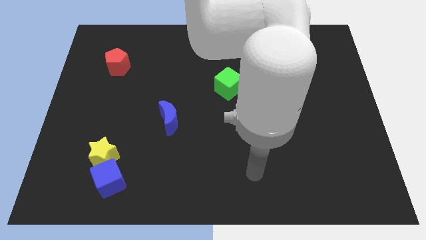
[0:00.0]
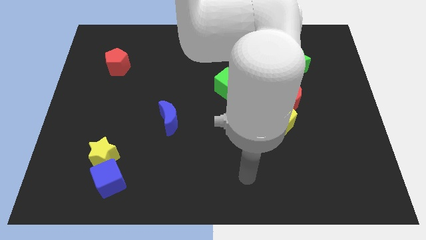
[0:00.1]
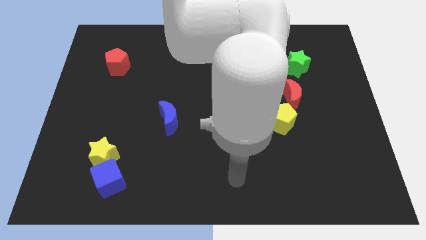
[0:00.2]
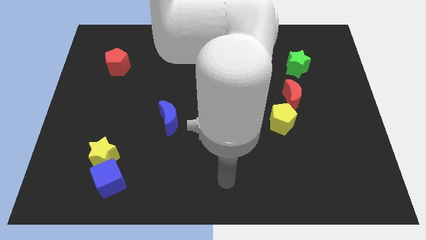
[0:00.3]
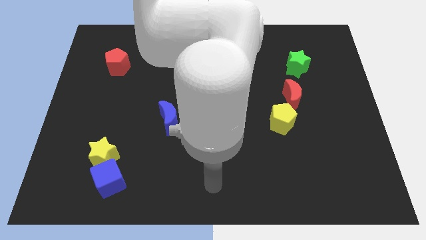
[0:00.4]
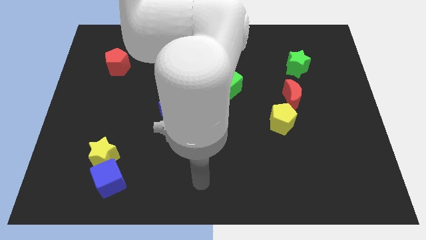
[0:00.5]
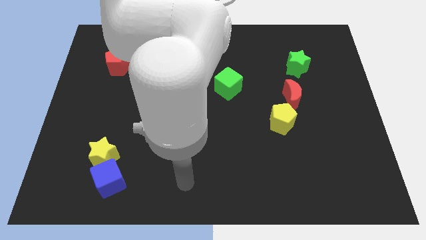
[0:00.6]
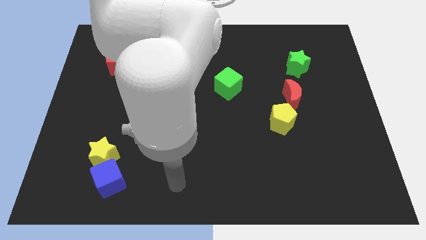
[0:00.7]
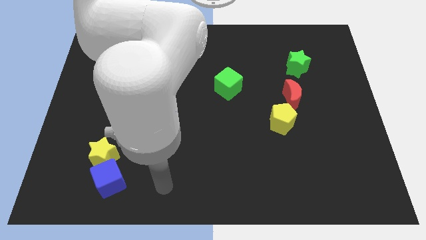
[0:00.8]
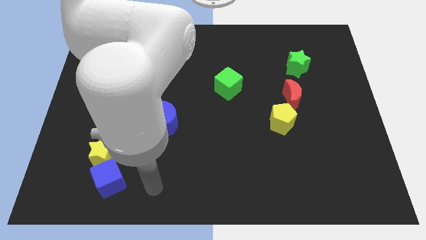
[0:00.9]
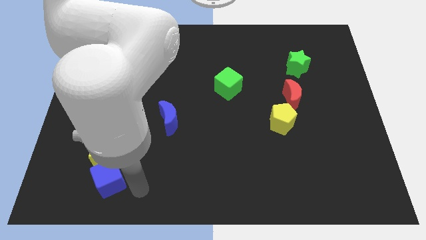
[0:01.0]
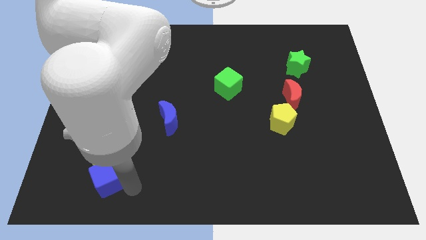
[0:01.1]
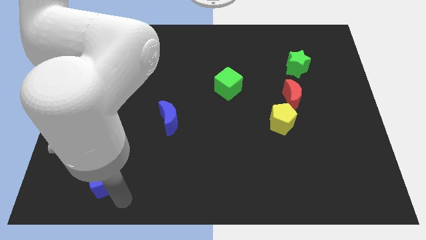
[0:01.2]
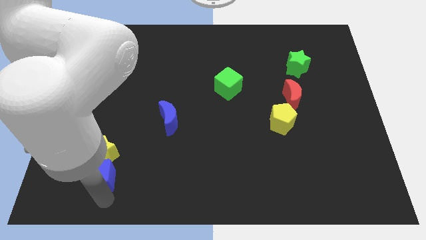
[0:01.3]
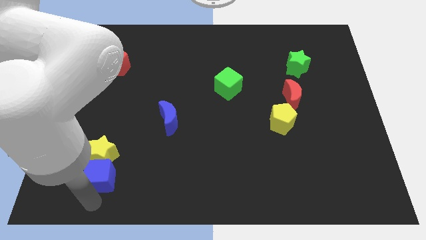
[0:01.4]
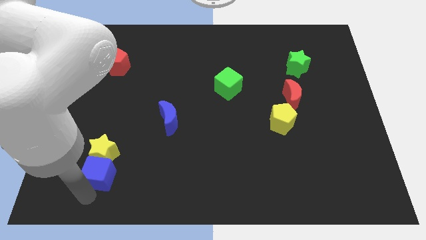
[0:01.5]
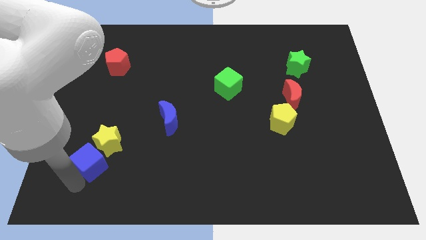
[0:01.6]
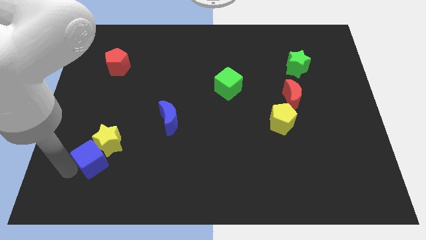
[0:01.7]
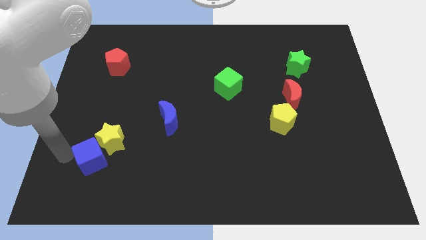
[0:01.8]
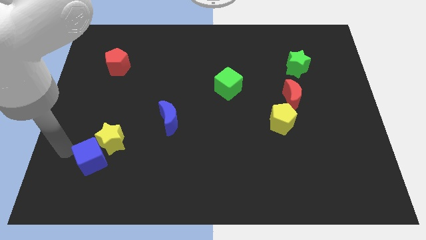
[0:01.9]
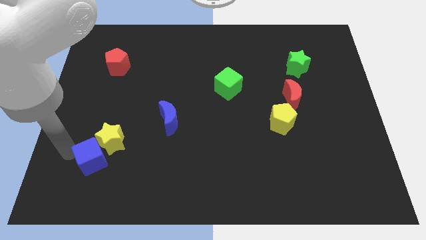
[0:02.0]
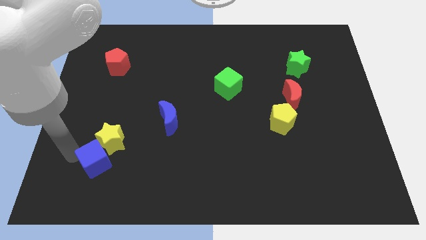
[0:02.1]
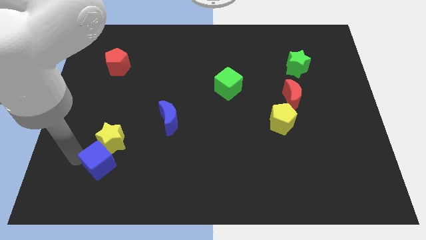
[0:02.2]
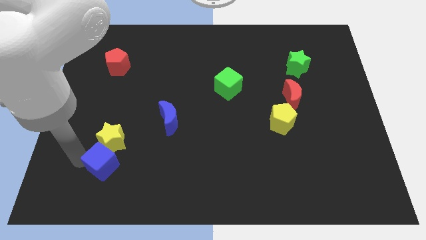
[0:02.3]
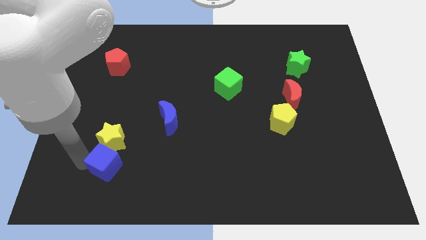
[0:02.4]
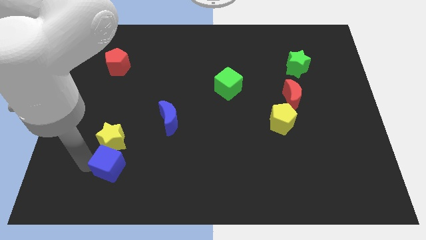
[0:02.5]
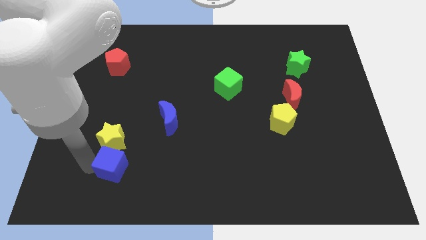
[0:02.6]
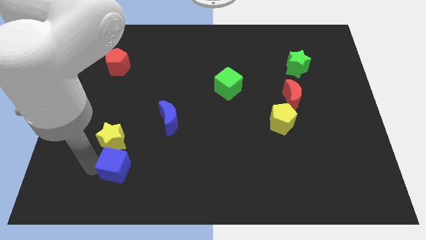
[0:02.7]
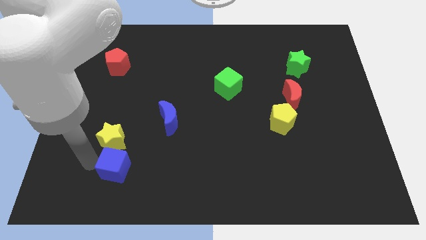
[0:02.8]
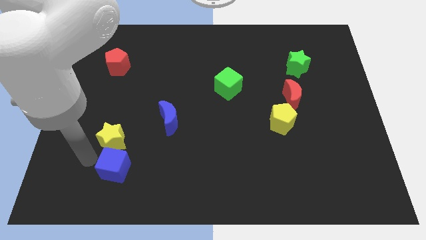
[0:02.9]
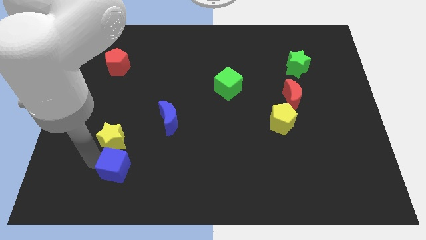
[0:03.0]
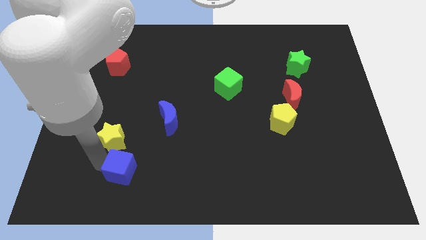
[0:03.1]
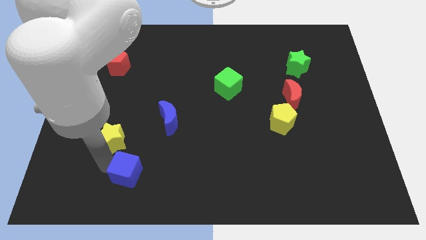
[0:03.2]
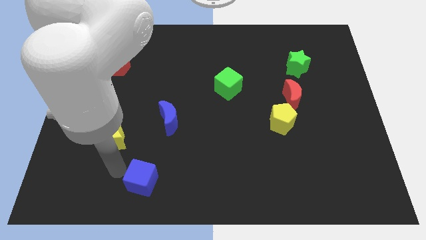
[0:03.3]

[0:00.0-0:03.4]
slightly push the blue cube right

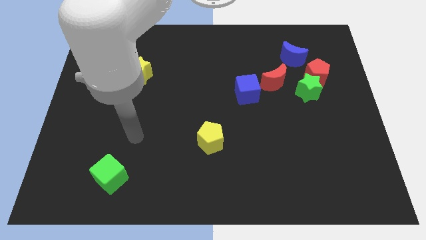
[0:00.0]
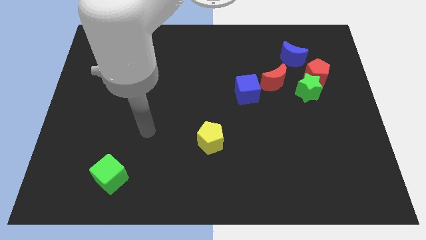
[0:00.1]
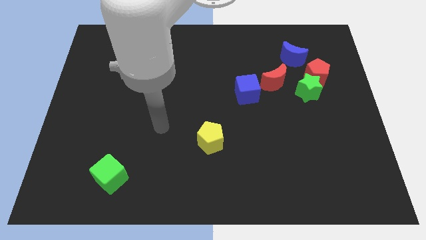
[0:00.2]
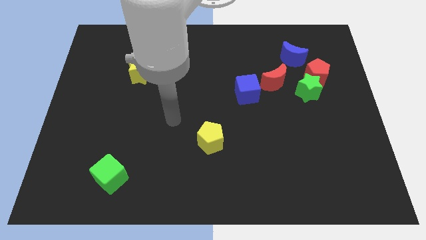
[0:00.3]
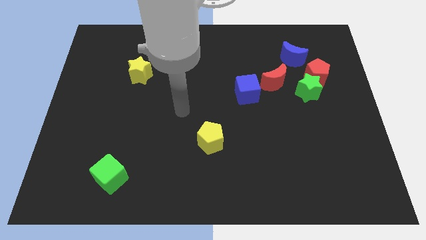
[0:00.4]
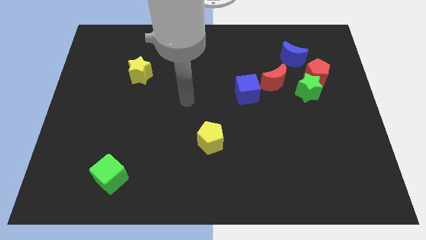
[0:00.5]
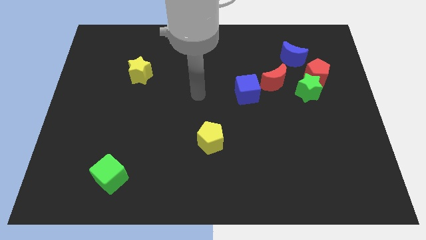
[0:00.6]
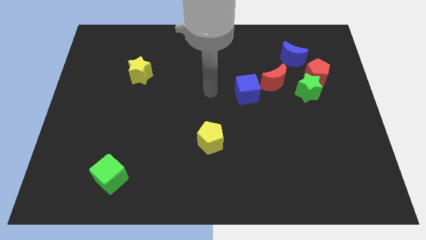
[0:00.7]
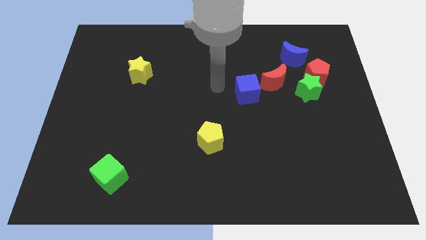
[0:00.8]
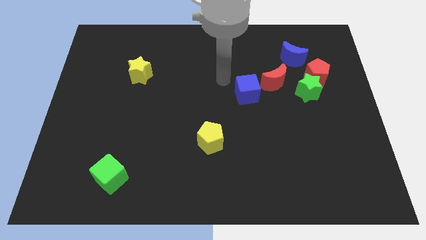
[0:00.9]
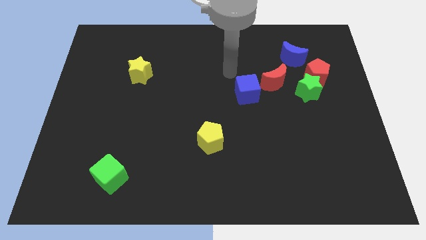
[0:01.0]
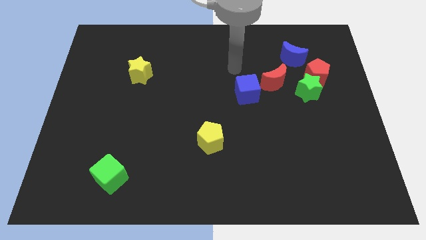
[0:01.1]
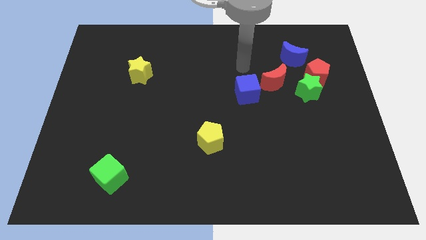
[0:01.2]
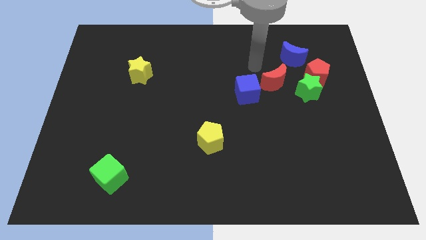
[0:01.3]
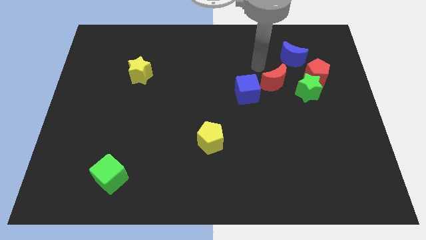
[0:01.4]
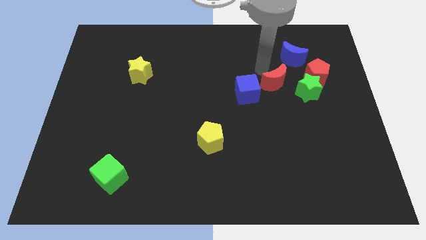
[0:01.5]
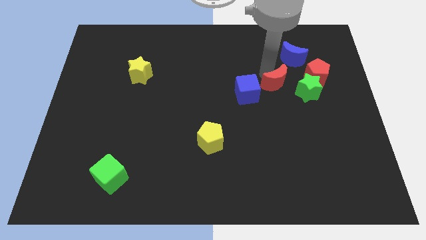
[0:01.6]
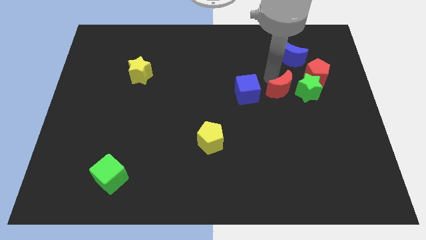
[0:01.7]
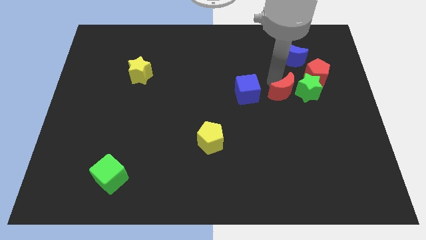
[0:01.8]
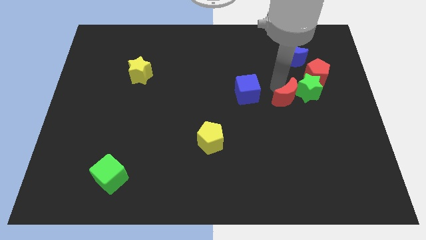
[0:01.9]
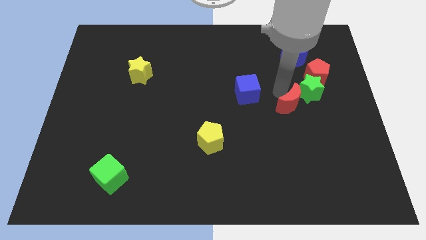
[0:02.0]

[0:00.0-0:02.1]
slide the red moon somewhat downwards and then to the right

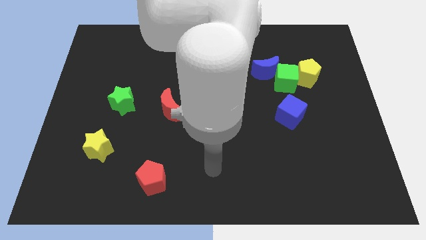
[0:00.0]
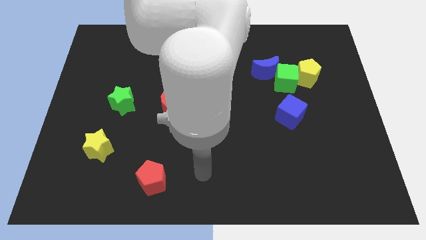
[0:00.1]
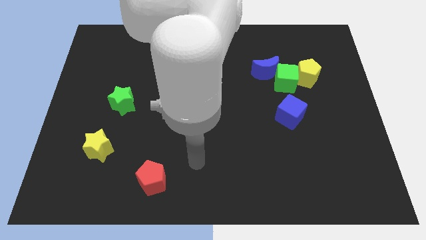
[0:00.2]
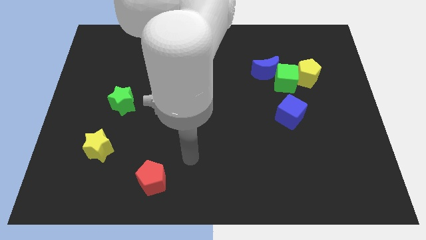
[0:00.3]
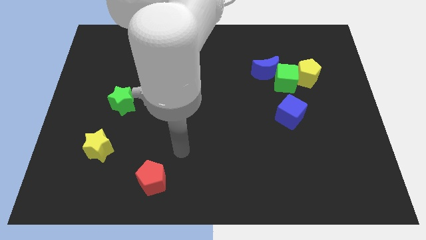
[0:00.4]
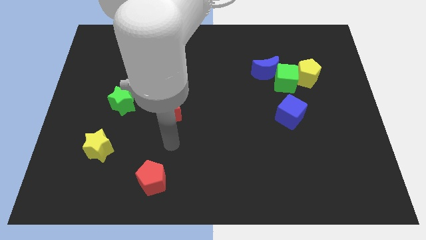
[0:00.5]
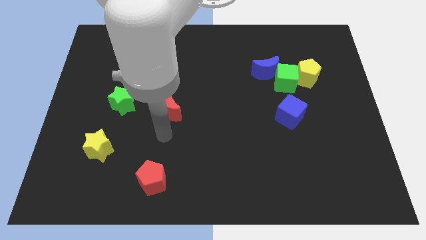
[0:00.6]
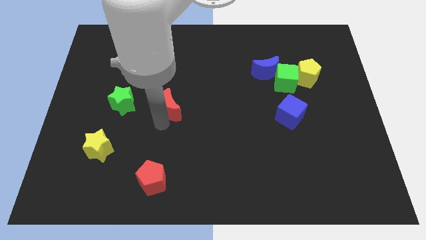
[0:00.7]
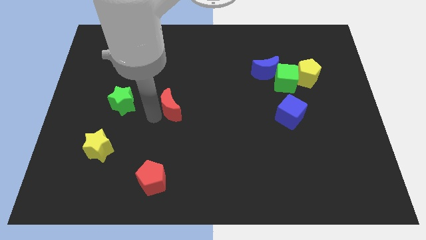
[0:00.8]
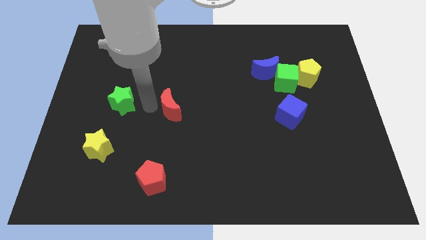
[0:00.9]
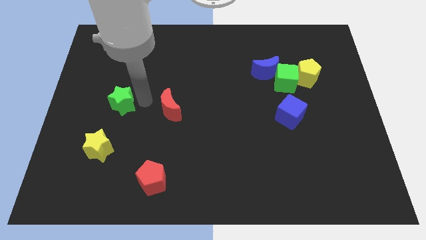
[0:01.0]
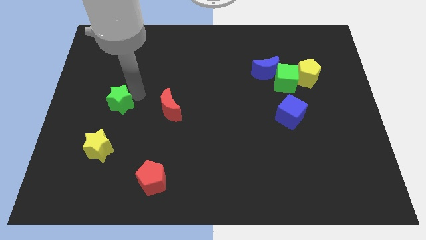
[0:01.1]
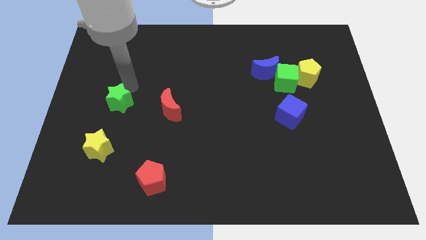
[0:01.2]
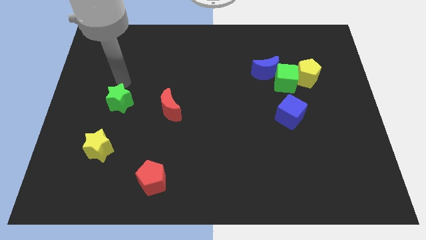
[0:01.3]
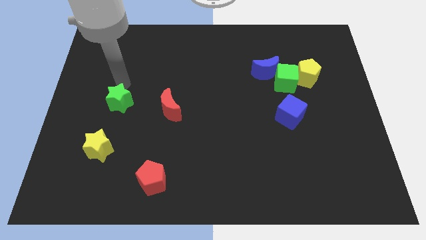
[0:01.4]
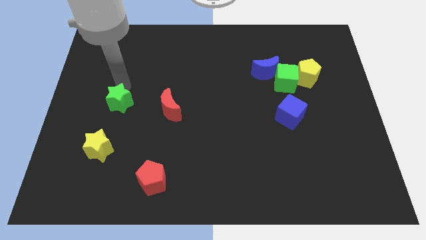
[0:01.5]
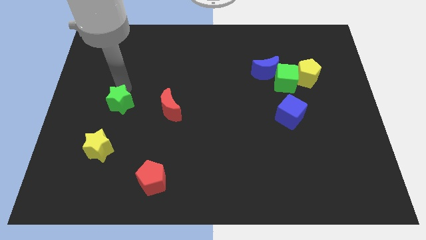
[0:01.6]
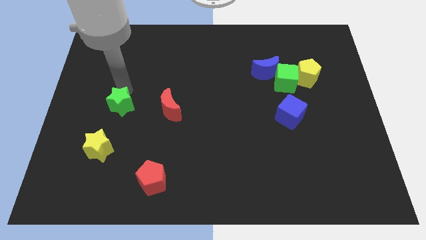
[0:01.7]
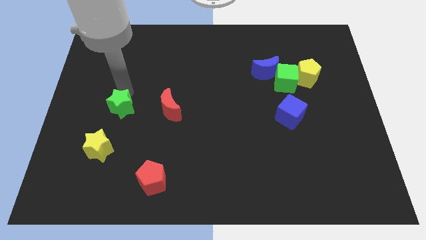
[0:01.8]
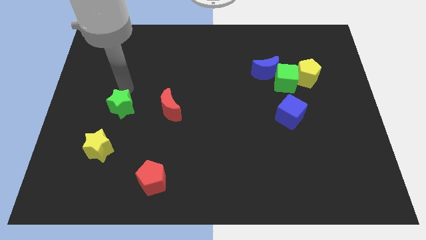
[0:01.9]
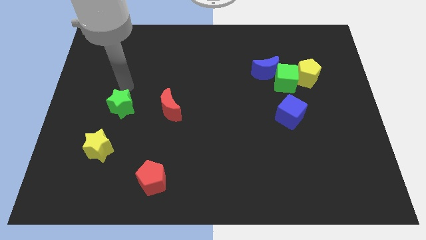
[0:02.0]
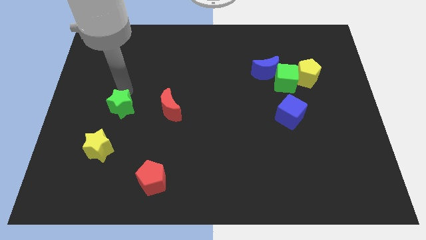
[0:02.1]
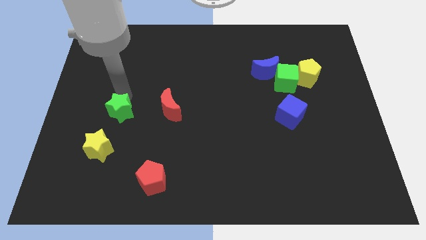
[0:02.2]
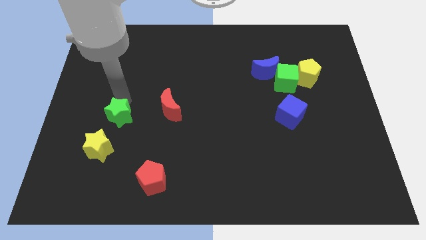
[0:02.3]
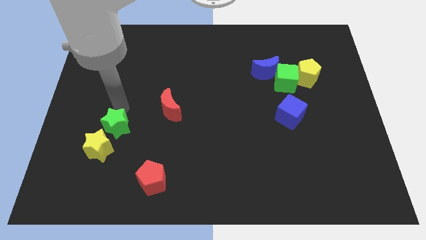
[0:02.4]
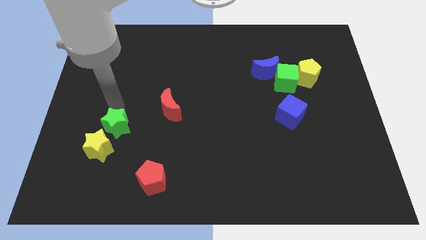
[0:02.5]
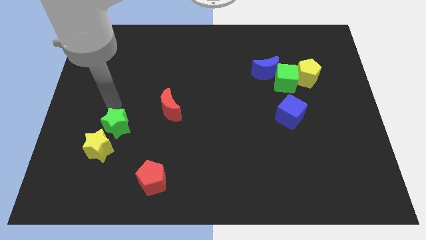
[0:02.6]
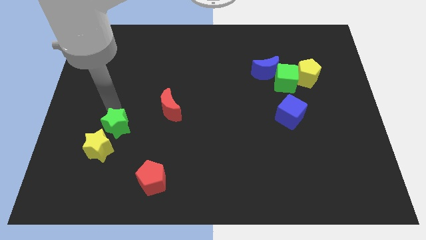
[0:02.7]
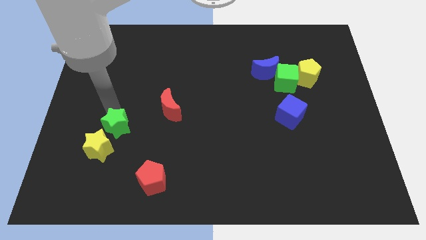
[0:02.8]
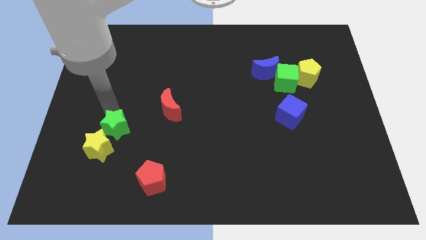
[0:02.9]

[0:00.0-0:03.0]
push the green star a bit downwards
